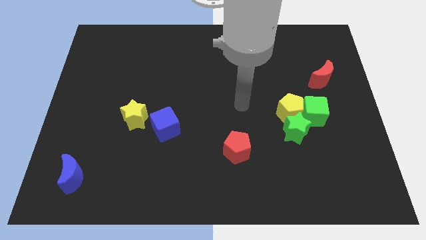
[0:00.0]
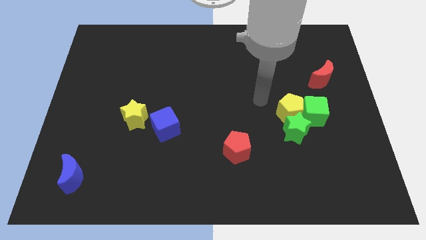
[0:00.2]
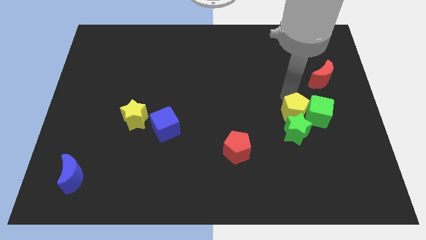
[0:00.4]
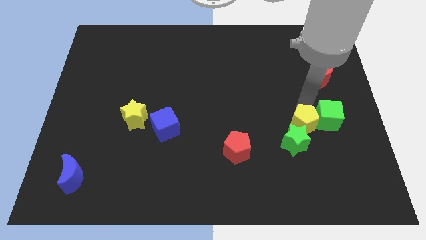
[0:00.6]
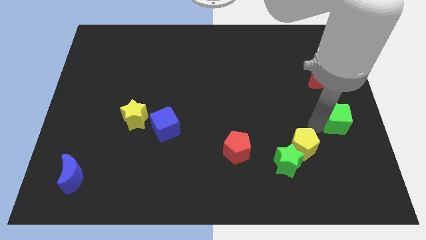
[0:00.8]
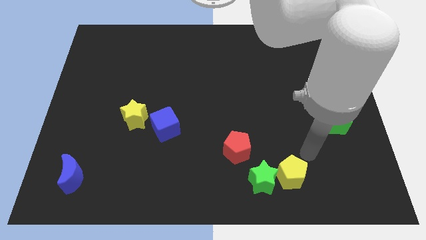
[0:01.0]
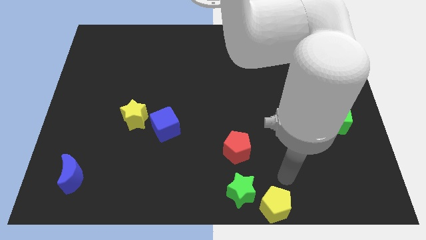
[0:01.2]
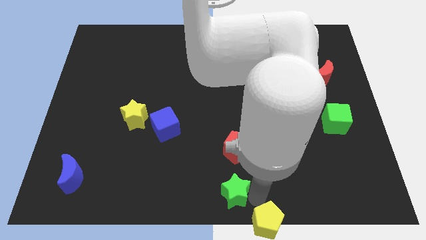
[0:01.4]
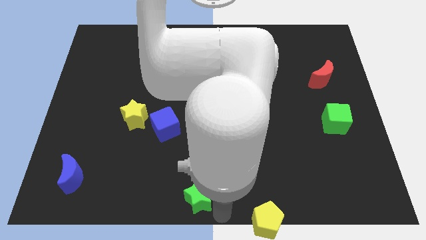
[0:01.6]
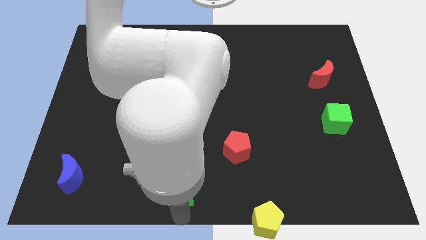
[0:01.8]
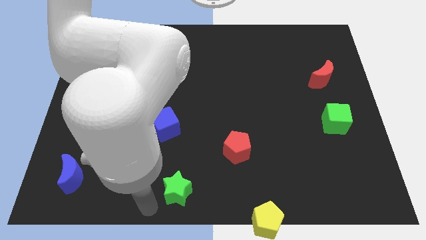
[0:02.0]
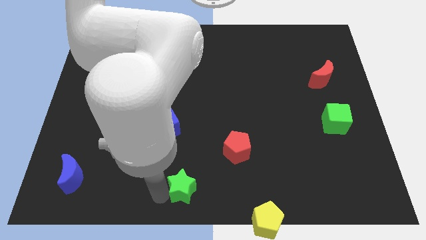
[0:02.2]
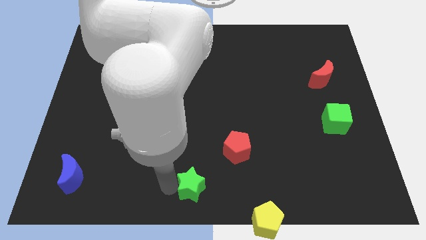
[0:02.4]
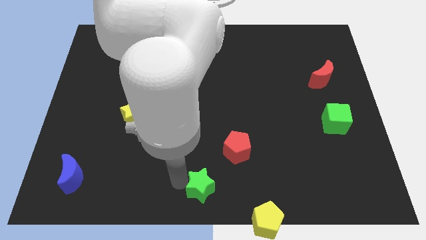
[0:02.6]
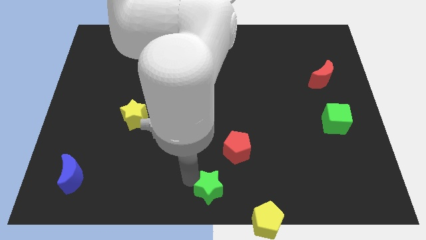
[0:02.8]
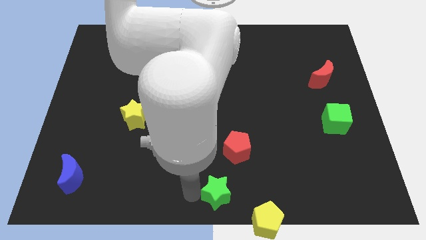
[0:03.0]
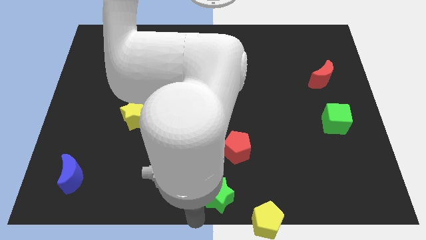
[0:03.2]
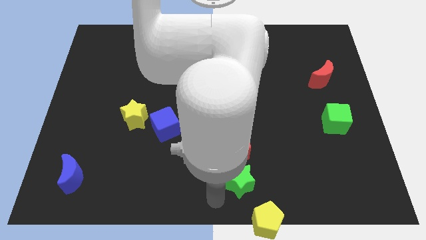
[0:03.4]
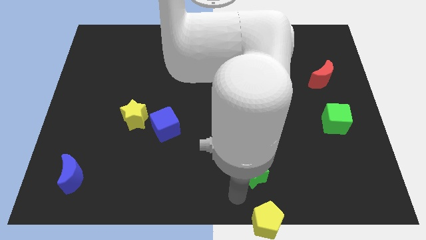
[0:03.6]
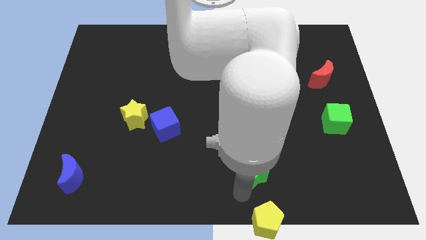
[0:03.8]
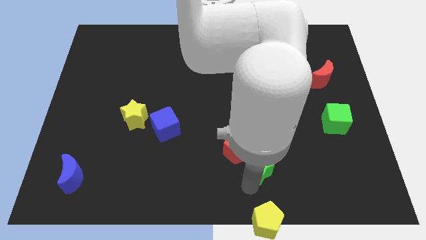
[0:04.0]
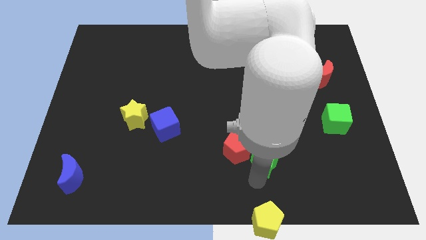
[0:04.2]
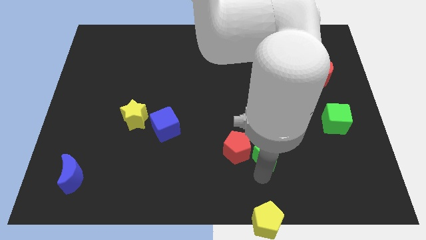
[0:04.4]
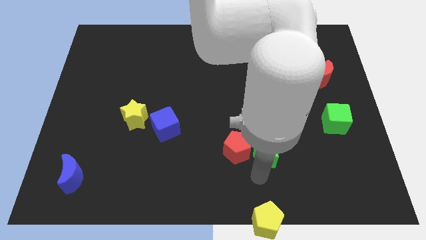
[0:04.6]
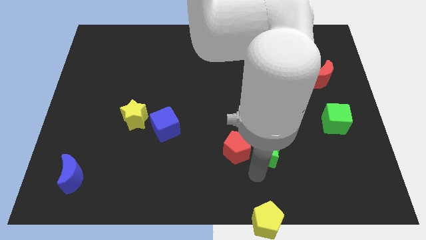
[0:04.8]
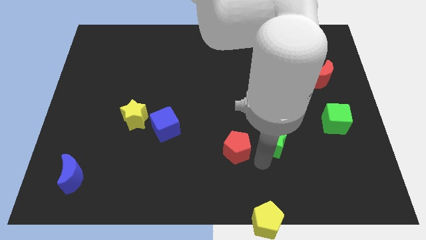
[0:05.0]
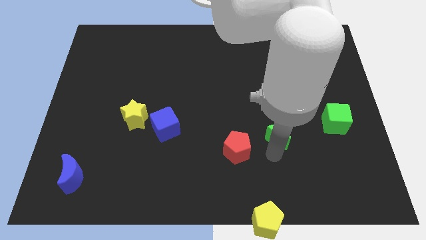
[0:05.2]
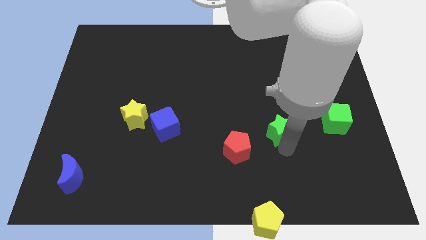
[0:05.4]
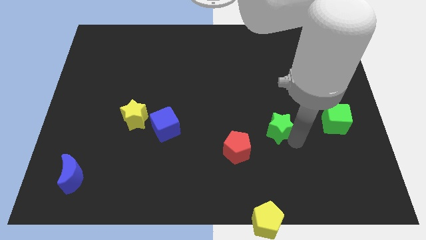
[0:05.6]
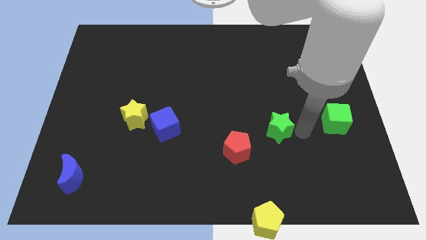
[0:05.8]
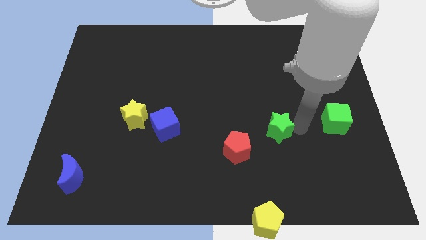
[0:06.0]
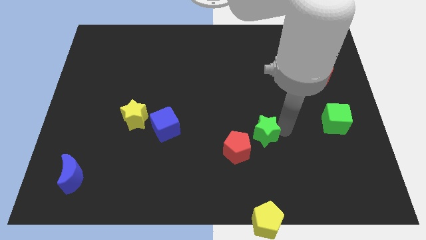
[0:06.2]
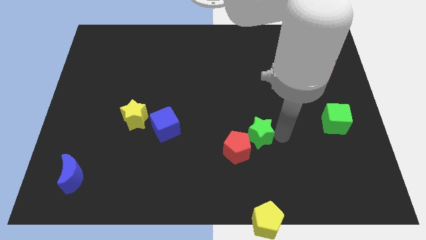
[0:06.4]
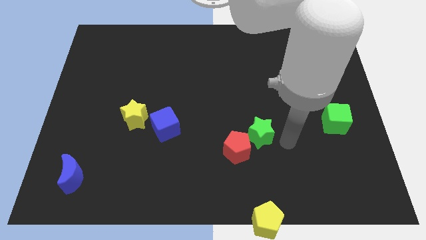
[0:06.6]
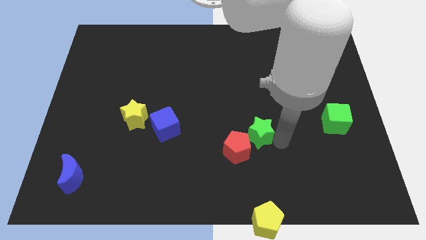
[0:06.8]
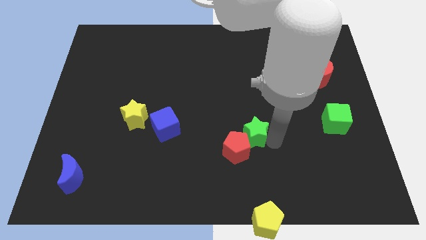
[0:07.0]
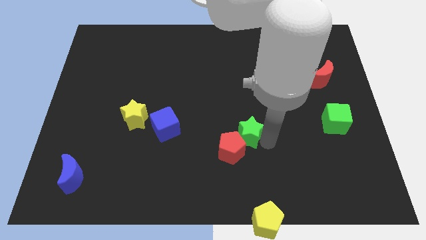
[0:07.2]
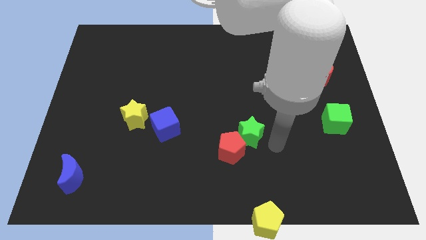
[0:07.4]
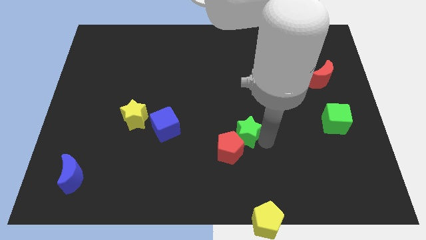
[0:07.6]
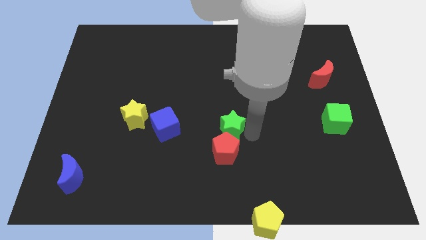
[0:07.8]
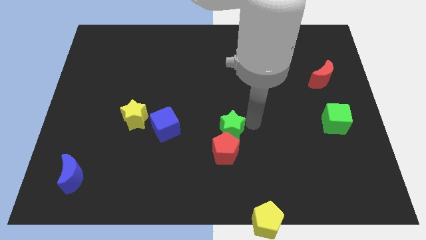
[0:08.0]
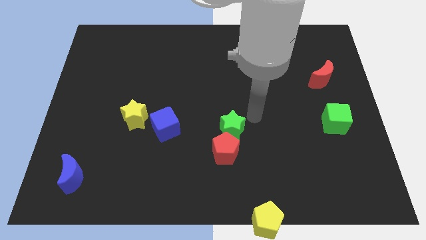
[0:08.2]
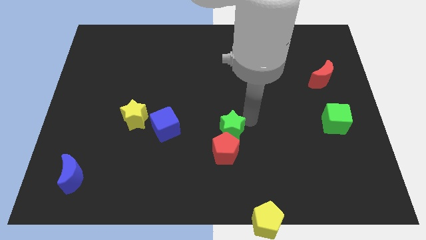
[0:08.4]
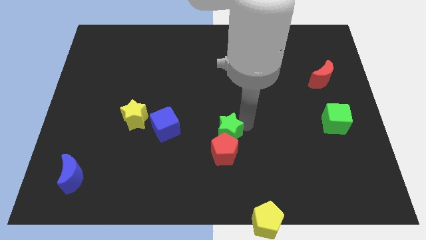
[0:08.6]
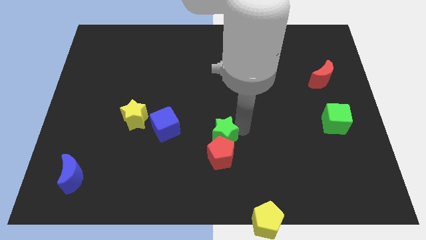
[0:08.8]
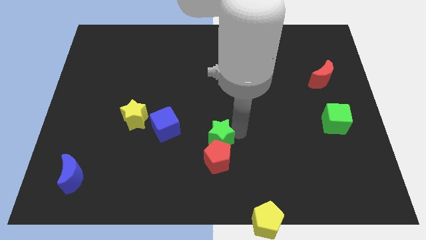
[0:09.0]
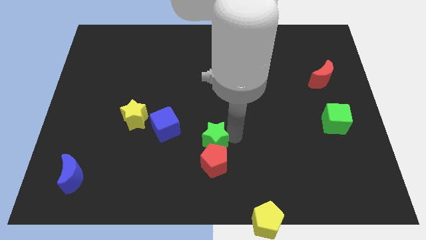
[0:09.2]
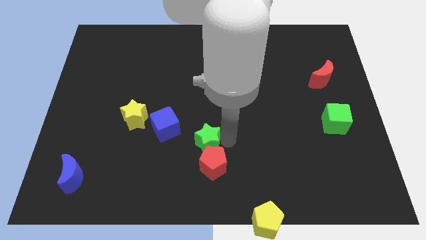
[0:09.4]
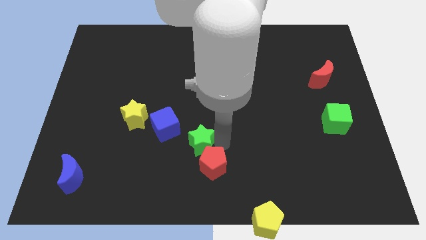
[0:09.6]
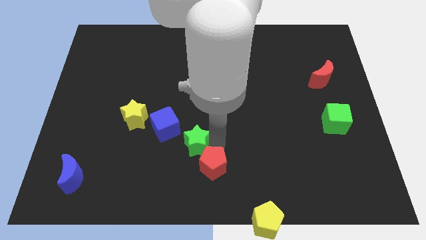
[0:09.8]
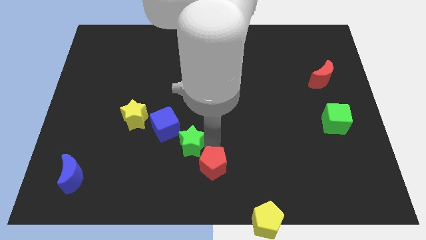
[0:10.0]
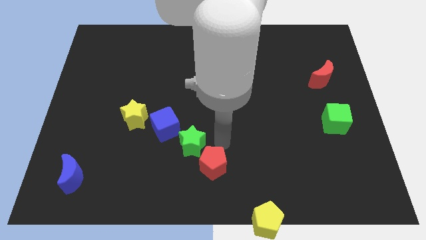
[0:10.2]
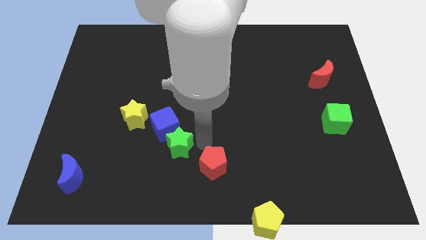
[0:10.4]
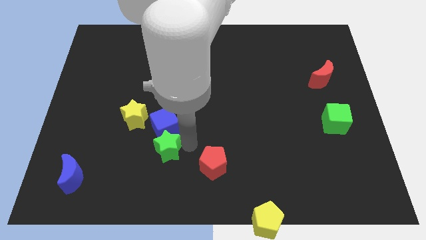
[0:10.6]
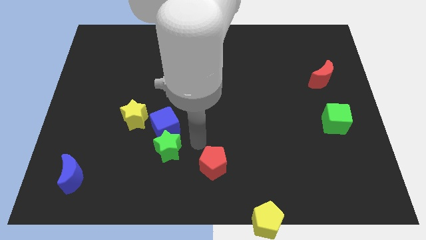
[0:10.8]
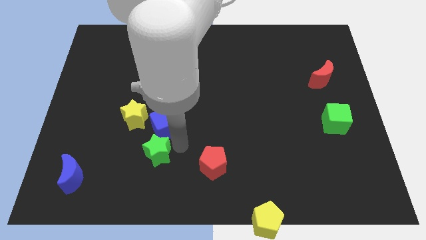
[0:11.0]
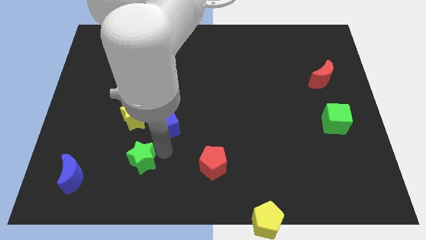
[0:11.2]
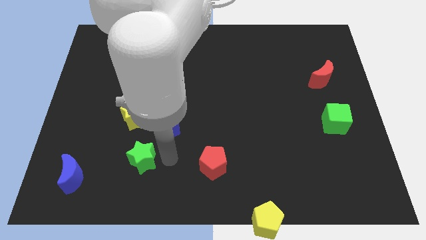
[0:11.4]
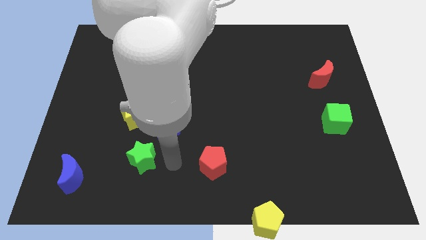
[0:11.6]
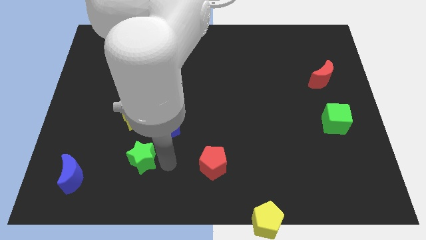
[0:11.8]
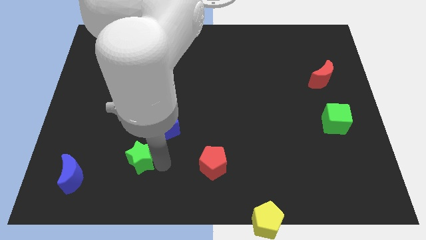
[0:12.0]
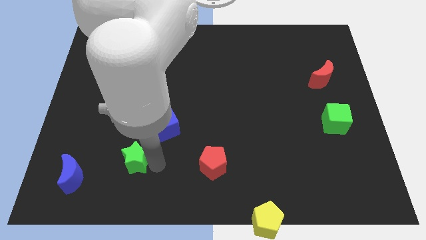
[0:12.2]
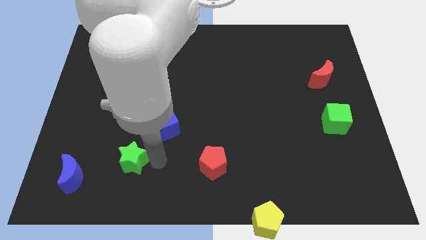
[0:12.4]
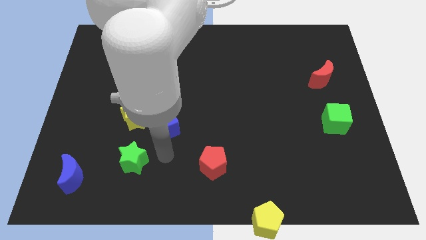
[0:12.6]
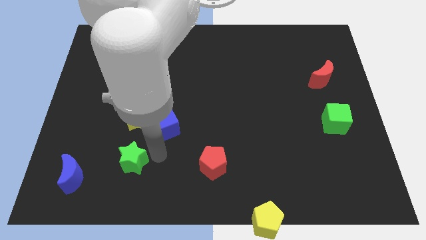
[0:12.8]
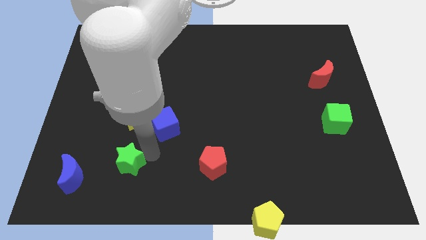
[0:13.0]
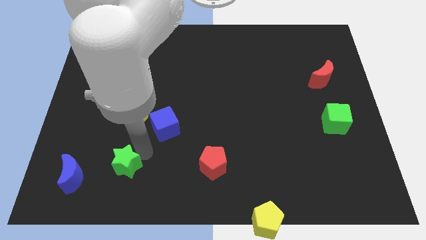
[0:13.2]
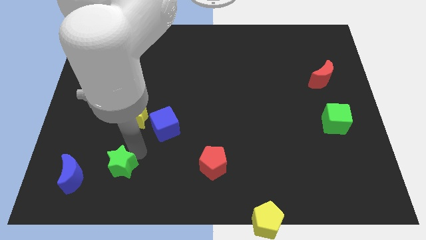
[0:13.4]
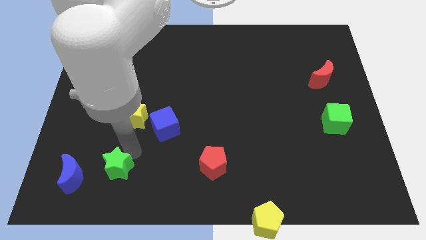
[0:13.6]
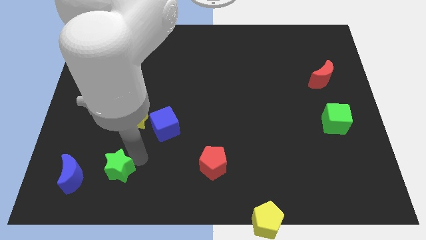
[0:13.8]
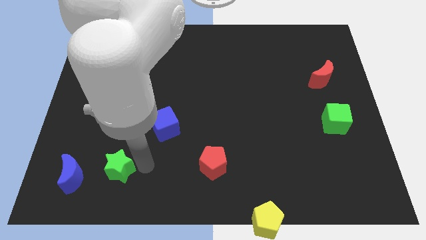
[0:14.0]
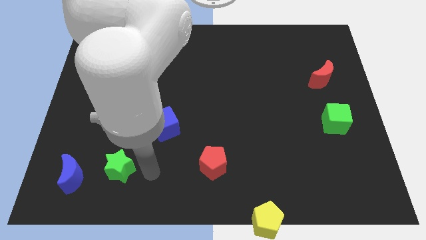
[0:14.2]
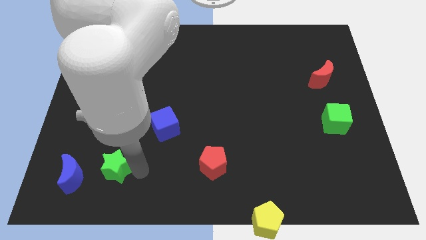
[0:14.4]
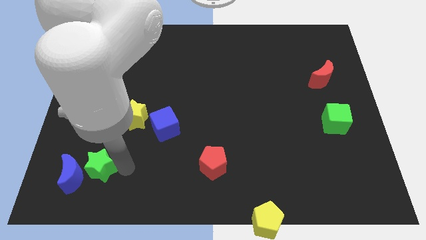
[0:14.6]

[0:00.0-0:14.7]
slide the green star towards the blue moon
